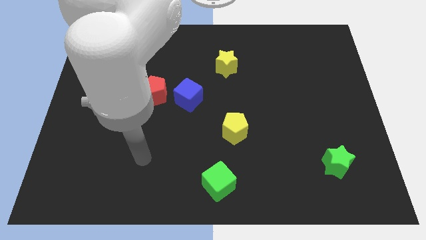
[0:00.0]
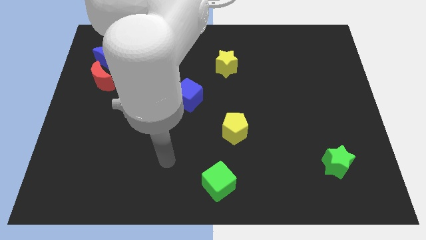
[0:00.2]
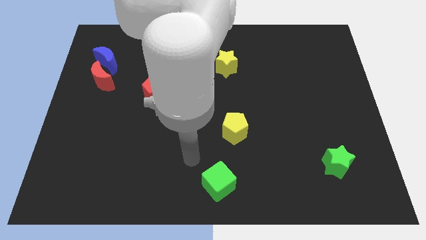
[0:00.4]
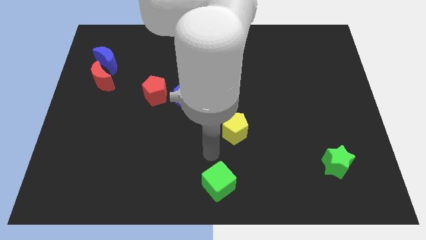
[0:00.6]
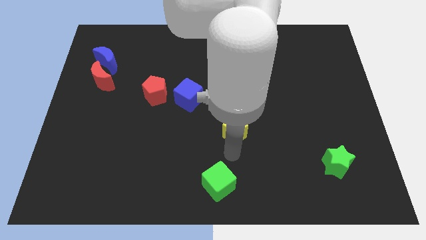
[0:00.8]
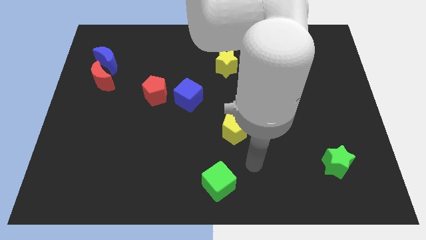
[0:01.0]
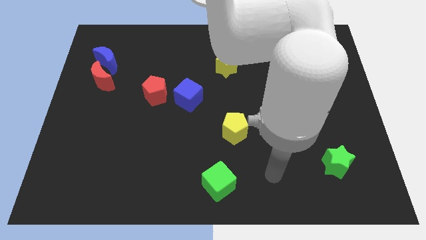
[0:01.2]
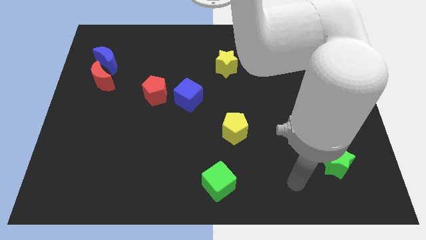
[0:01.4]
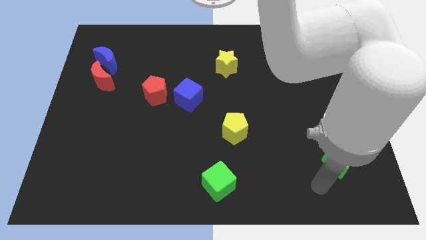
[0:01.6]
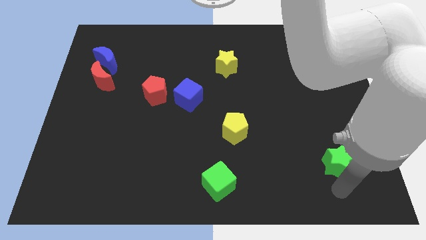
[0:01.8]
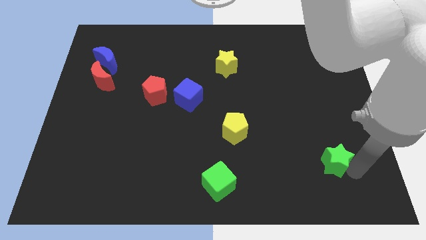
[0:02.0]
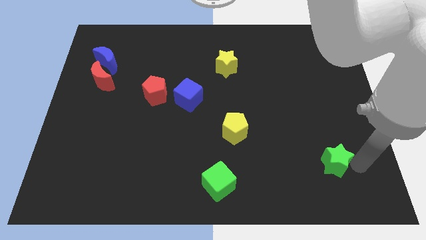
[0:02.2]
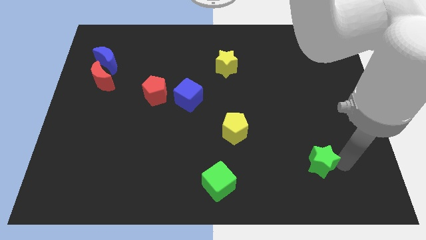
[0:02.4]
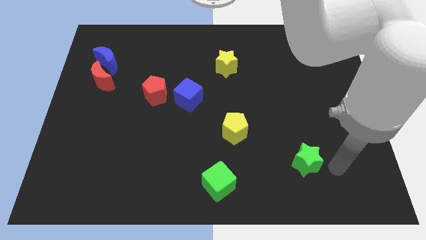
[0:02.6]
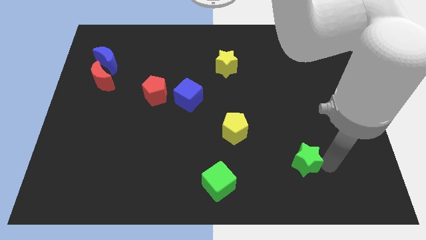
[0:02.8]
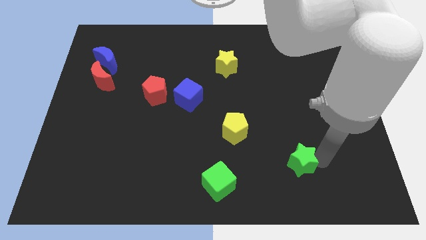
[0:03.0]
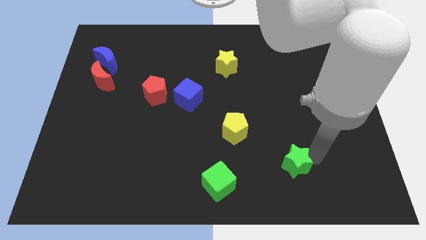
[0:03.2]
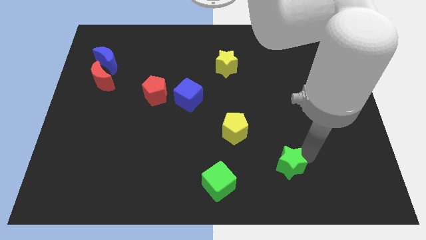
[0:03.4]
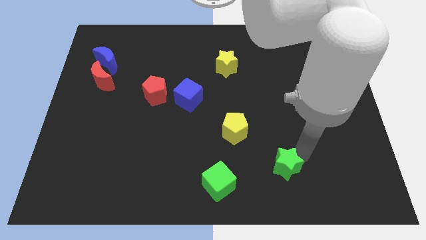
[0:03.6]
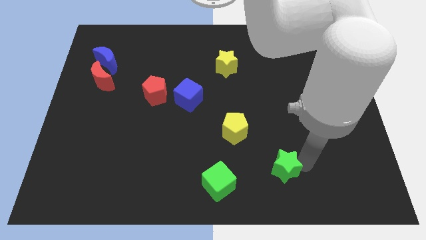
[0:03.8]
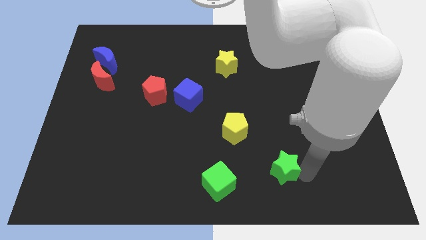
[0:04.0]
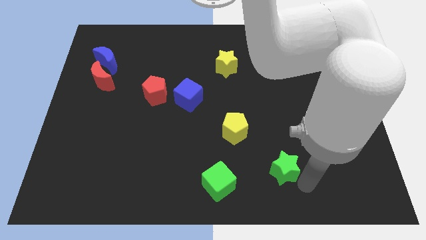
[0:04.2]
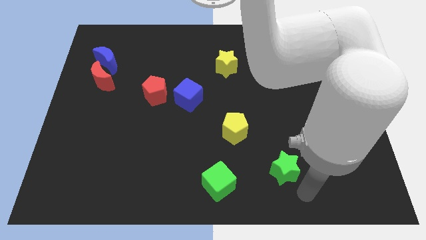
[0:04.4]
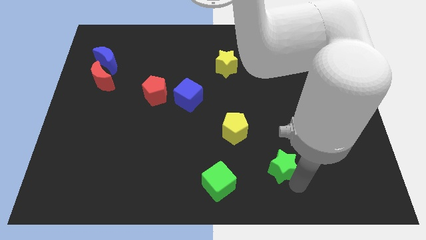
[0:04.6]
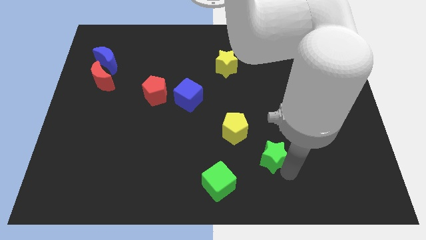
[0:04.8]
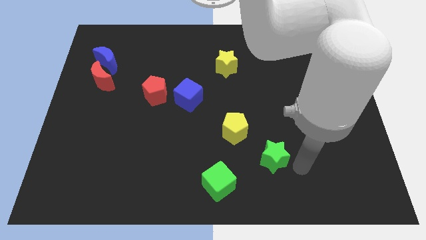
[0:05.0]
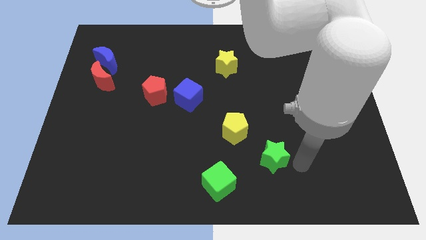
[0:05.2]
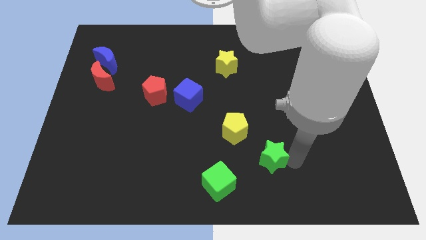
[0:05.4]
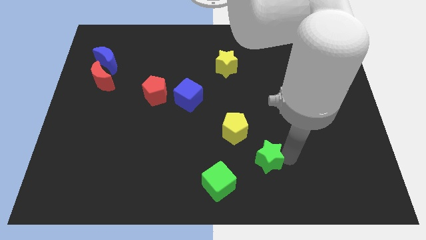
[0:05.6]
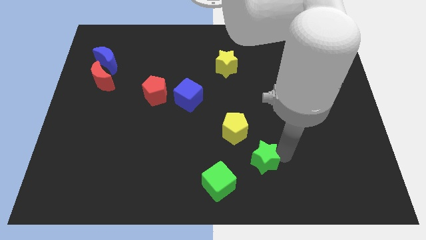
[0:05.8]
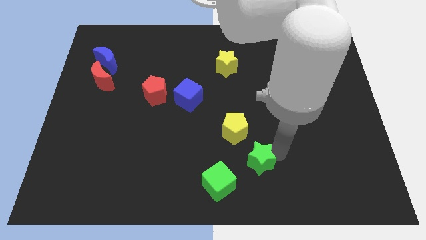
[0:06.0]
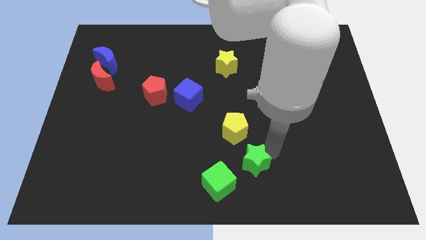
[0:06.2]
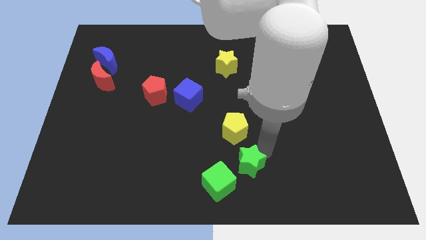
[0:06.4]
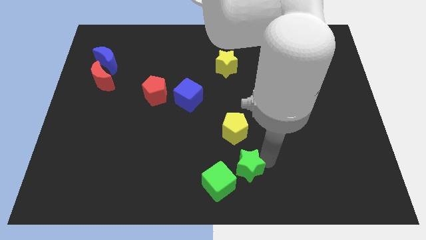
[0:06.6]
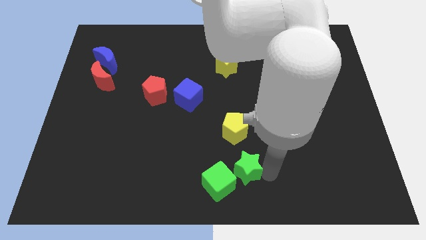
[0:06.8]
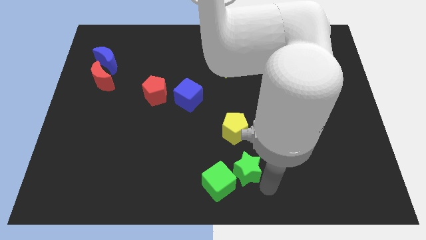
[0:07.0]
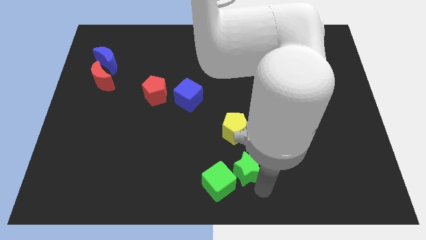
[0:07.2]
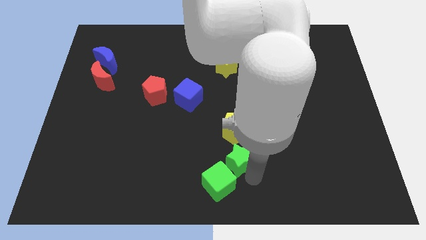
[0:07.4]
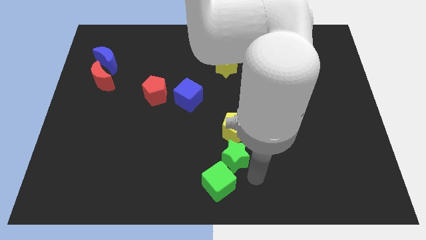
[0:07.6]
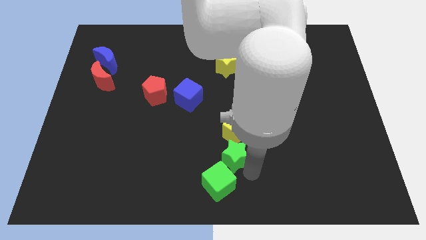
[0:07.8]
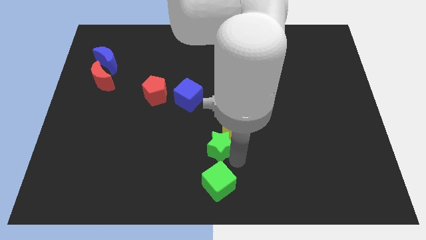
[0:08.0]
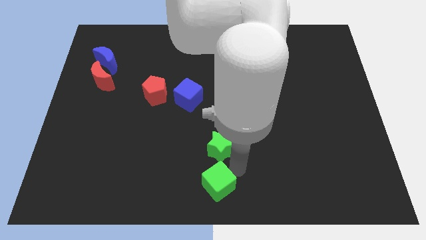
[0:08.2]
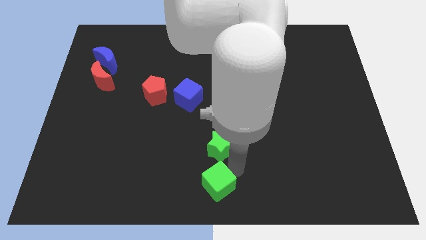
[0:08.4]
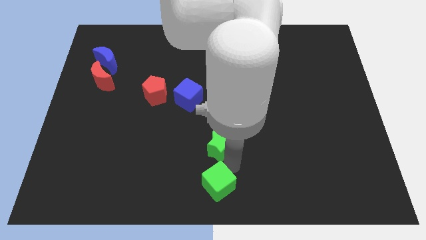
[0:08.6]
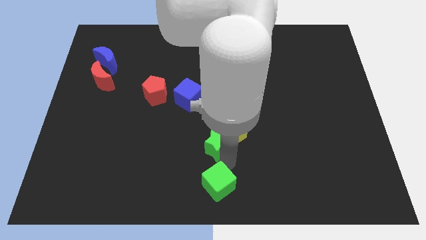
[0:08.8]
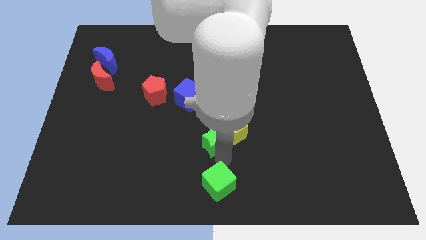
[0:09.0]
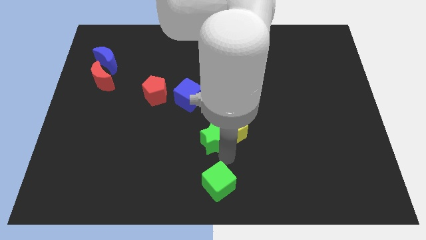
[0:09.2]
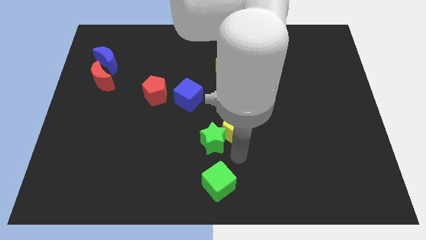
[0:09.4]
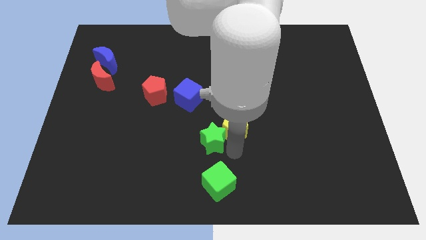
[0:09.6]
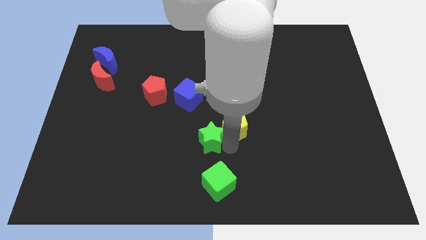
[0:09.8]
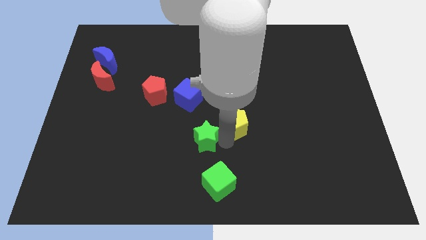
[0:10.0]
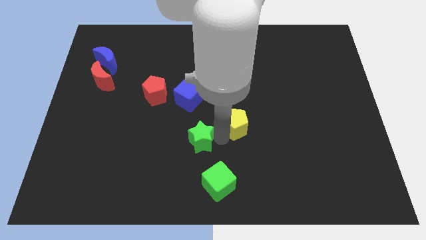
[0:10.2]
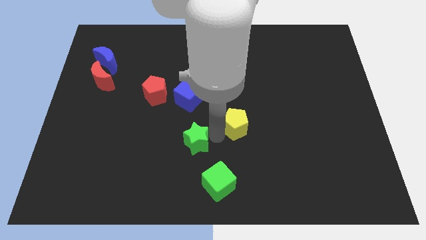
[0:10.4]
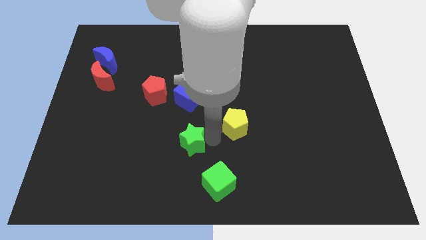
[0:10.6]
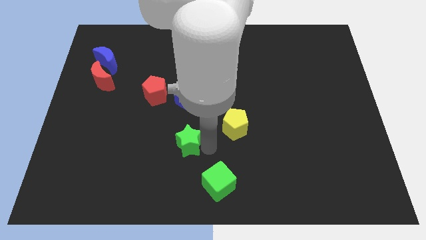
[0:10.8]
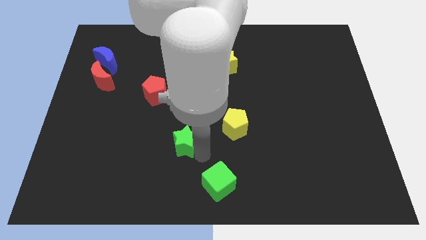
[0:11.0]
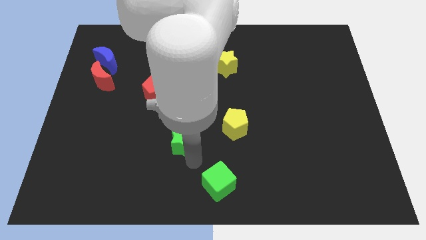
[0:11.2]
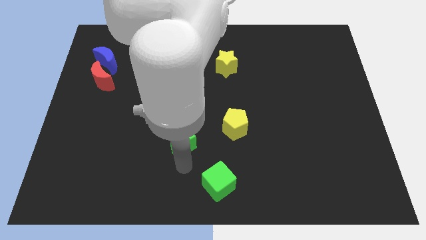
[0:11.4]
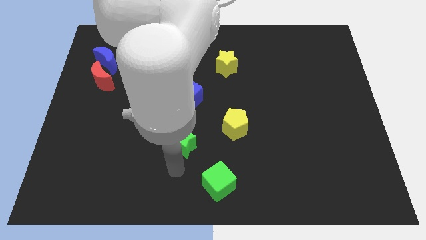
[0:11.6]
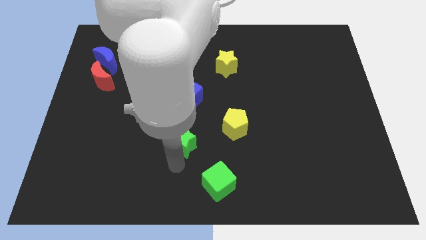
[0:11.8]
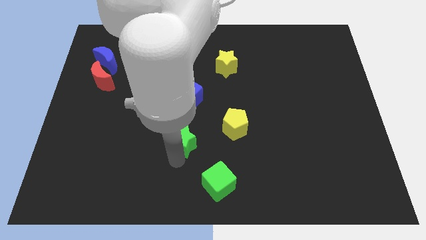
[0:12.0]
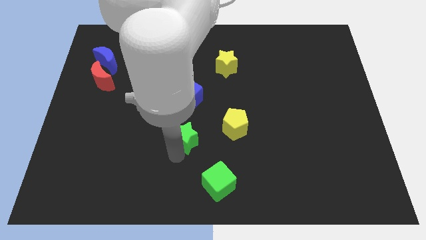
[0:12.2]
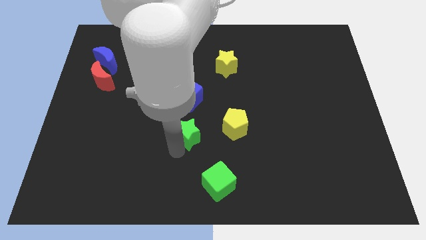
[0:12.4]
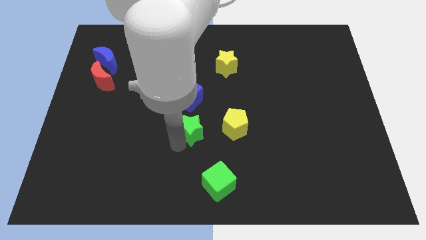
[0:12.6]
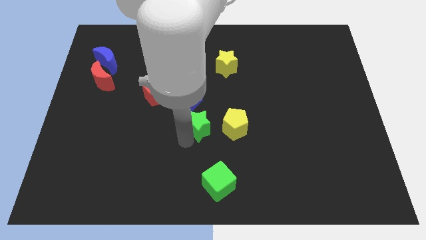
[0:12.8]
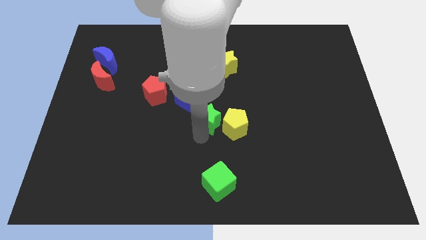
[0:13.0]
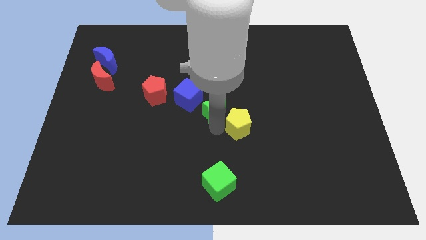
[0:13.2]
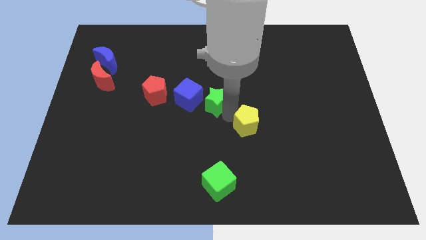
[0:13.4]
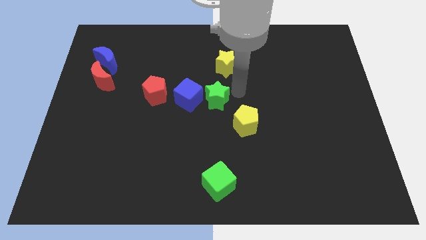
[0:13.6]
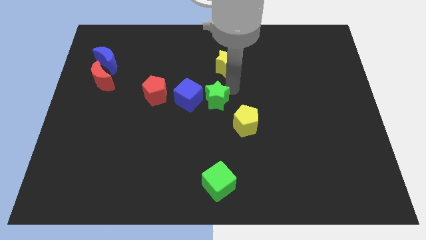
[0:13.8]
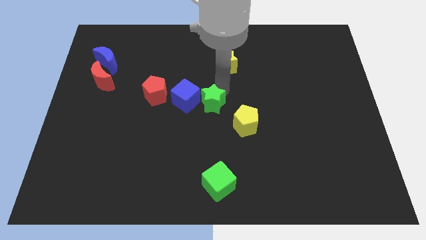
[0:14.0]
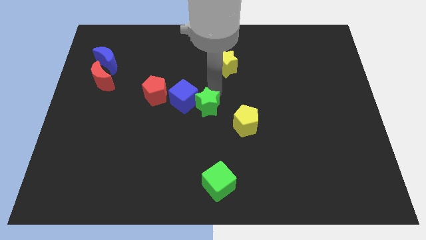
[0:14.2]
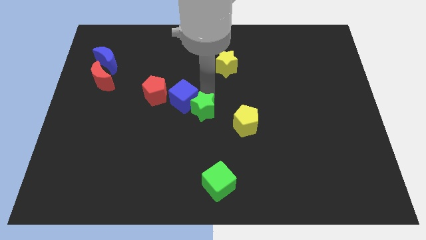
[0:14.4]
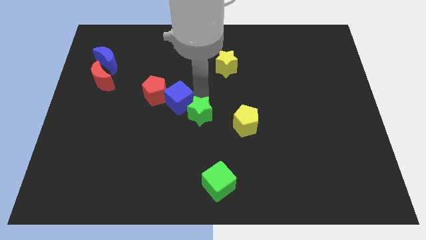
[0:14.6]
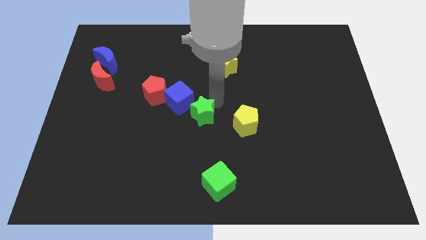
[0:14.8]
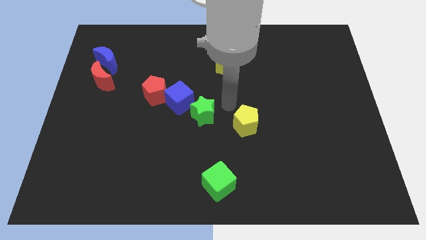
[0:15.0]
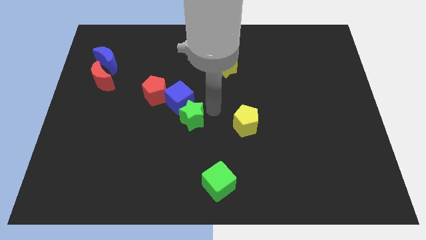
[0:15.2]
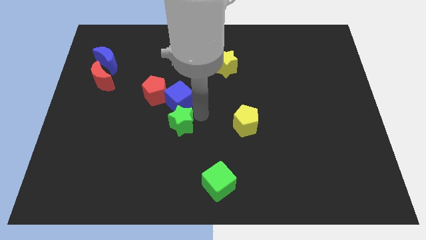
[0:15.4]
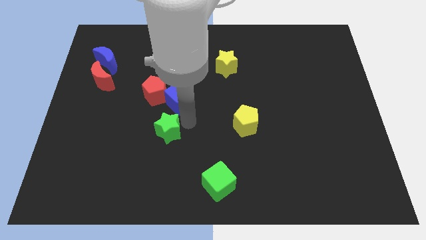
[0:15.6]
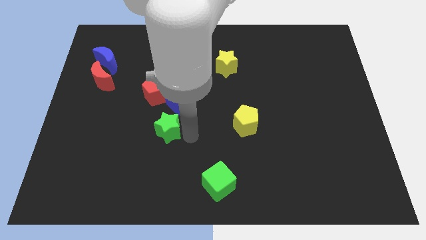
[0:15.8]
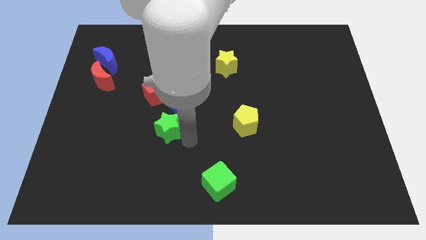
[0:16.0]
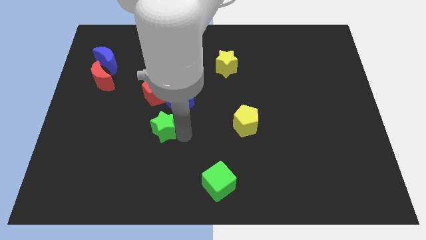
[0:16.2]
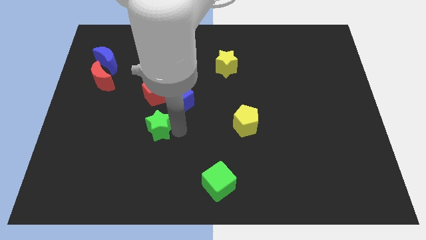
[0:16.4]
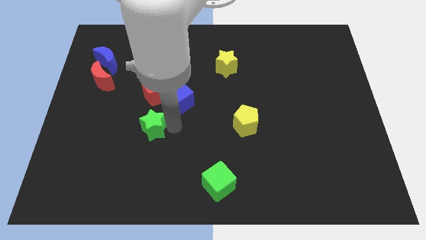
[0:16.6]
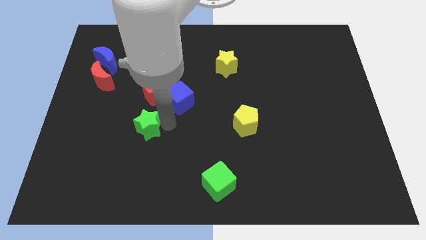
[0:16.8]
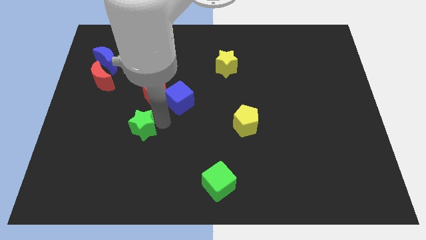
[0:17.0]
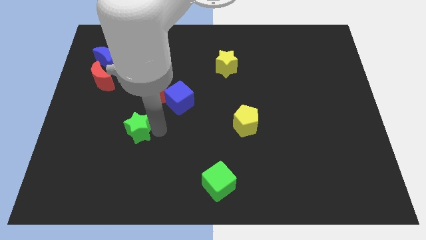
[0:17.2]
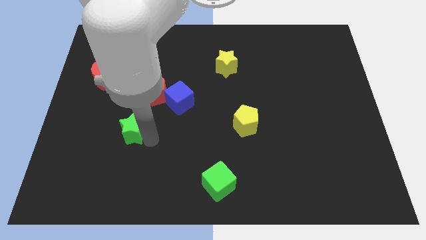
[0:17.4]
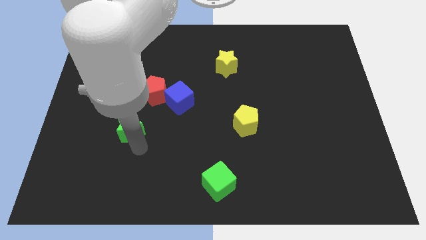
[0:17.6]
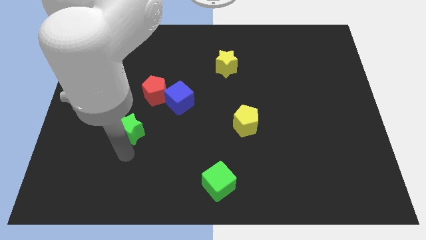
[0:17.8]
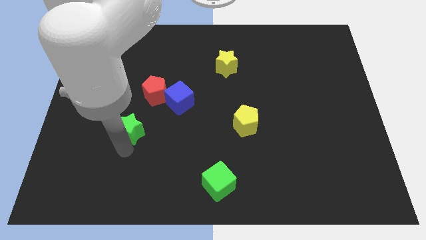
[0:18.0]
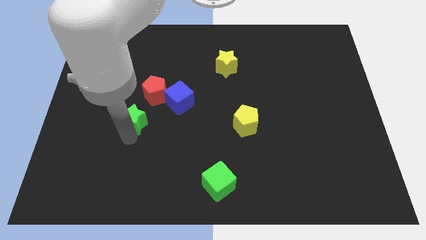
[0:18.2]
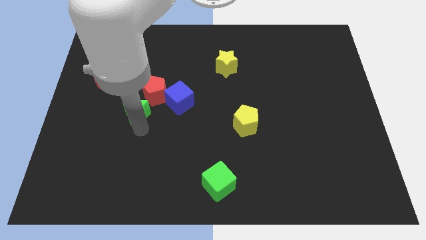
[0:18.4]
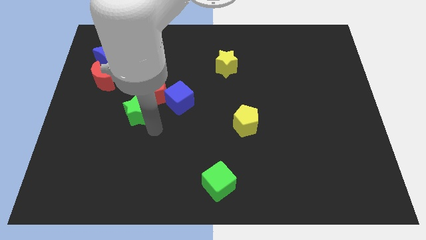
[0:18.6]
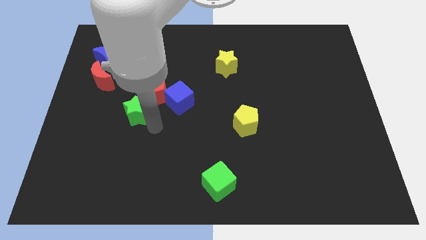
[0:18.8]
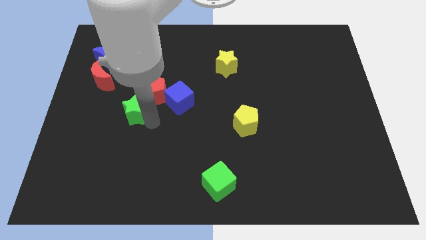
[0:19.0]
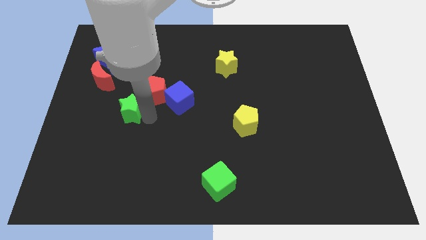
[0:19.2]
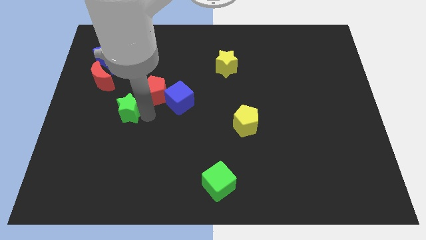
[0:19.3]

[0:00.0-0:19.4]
put the green star diagonally down and to the right of the red moon
